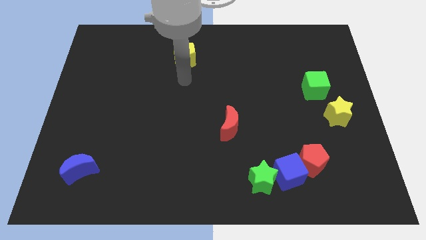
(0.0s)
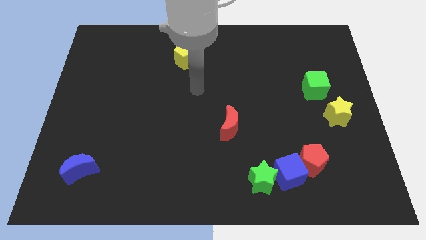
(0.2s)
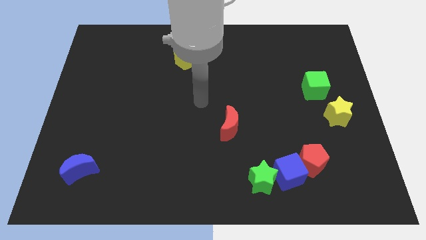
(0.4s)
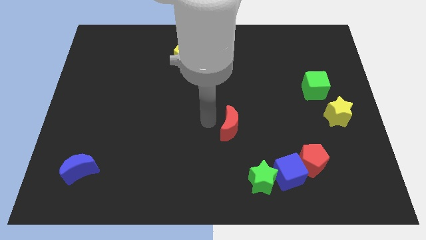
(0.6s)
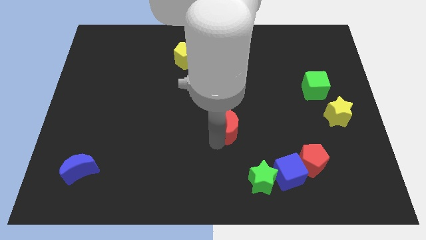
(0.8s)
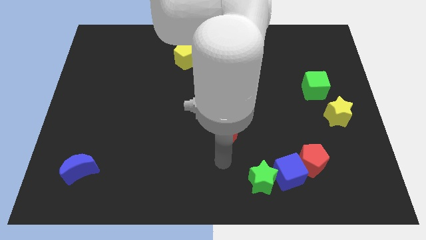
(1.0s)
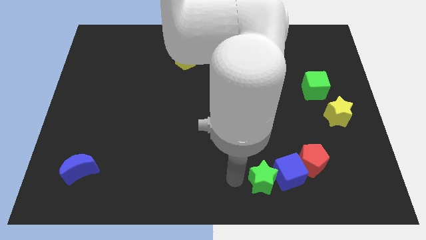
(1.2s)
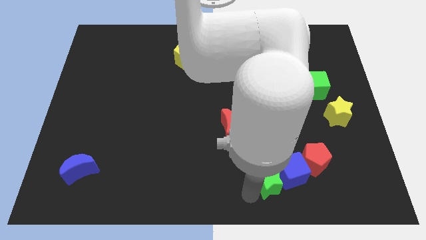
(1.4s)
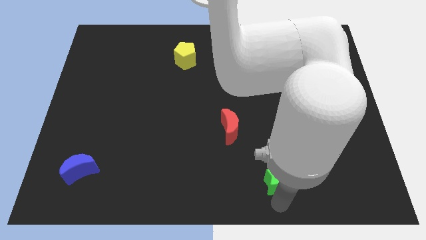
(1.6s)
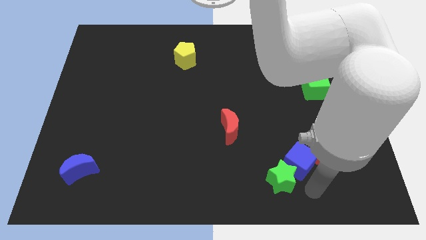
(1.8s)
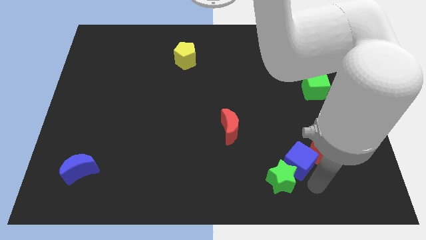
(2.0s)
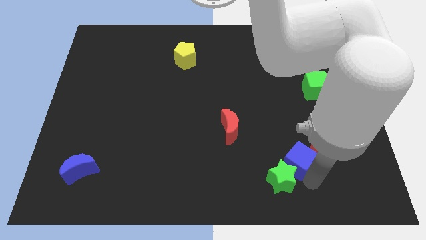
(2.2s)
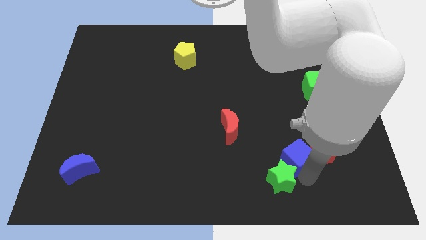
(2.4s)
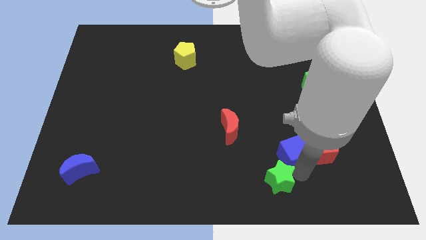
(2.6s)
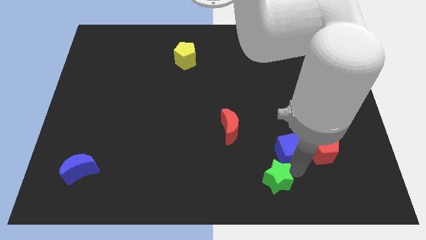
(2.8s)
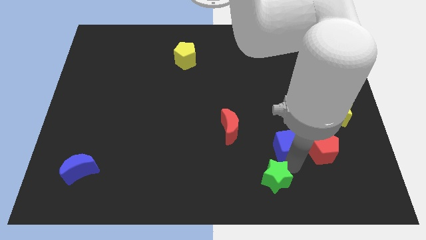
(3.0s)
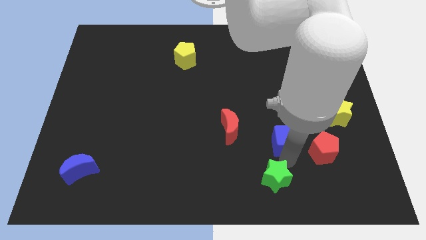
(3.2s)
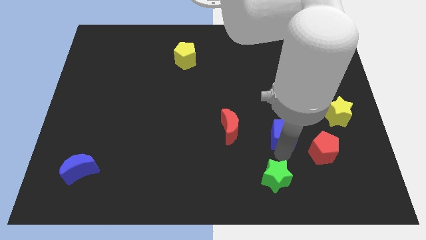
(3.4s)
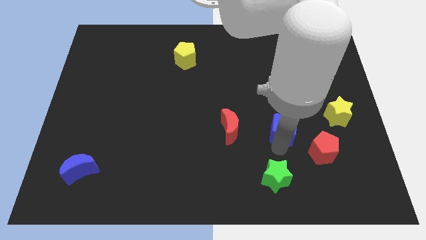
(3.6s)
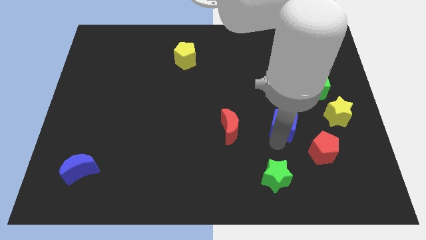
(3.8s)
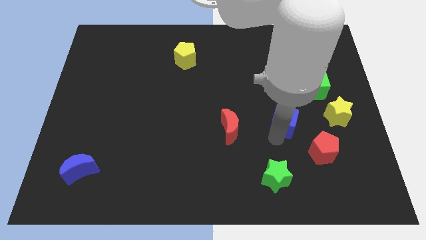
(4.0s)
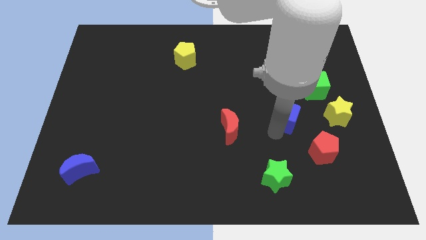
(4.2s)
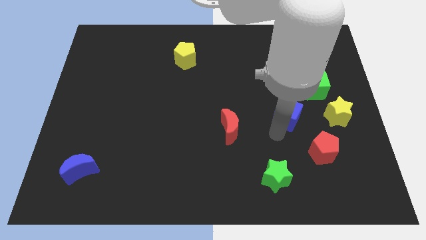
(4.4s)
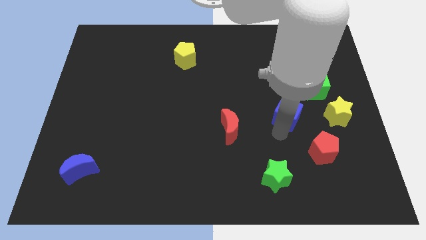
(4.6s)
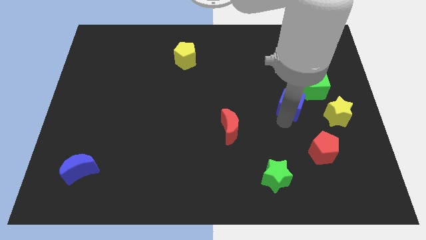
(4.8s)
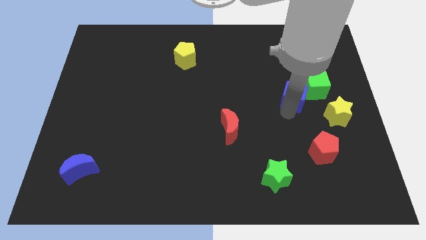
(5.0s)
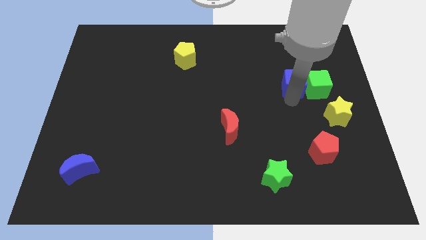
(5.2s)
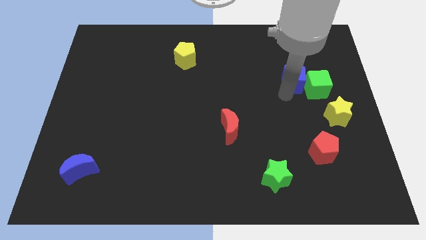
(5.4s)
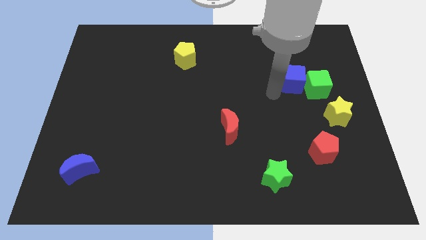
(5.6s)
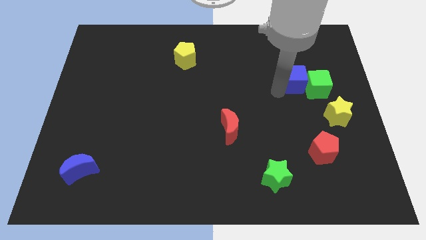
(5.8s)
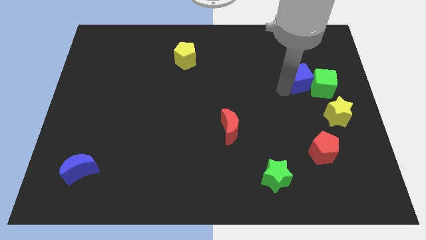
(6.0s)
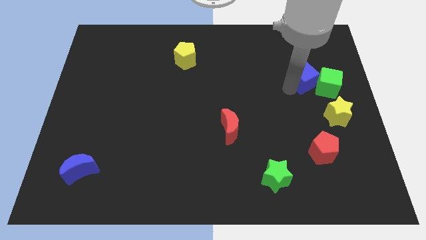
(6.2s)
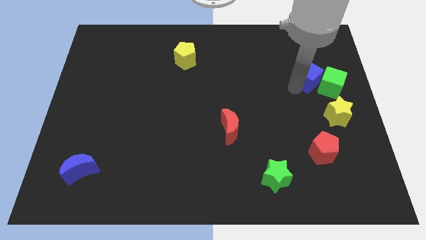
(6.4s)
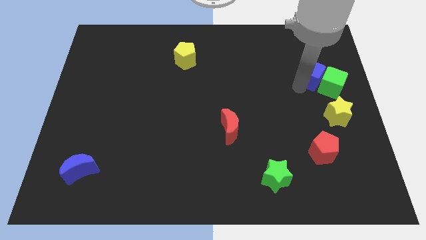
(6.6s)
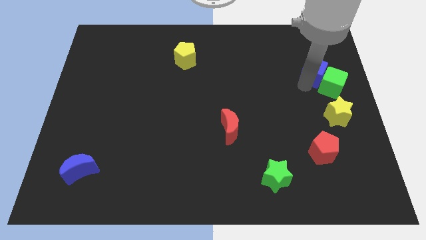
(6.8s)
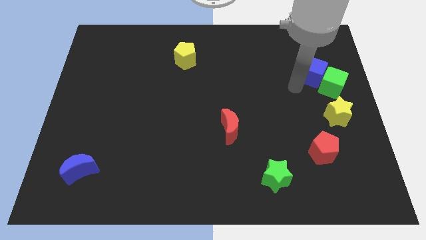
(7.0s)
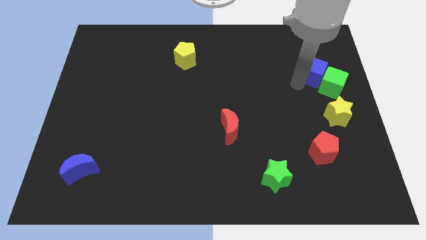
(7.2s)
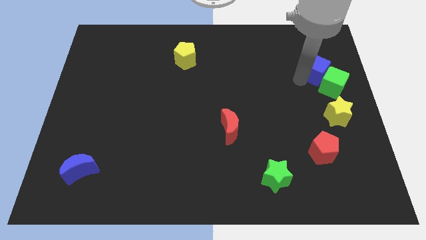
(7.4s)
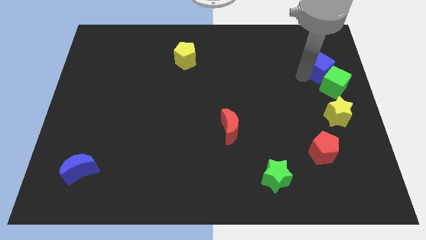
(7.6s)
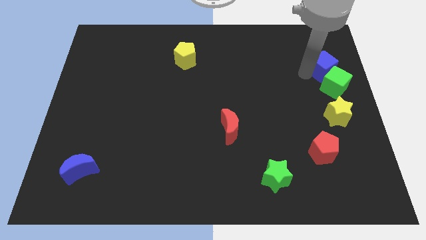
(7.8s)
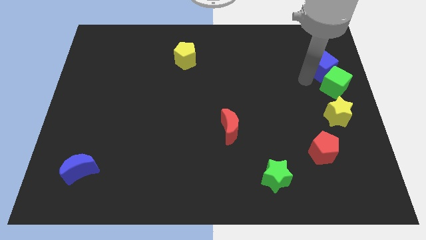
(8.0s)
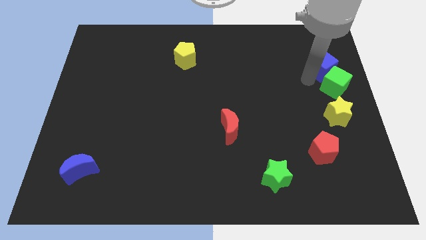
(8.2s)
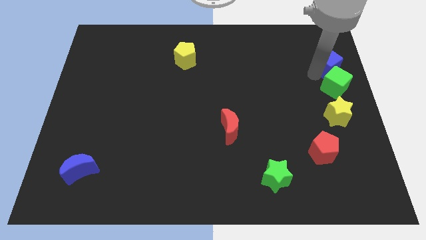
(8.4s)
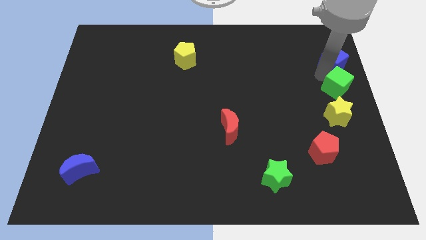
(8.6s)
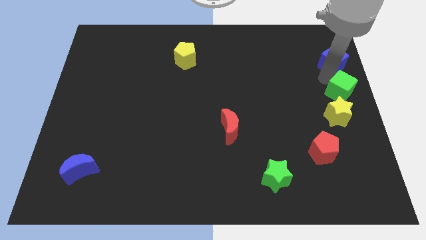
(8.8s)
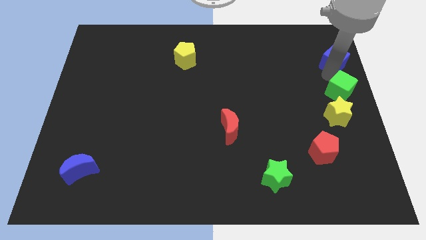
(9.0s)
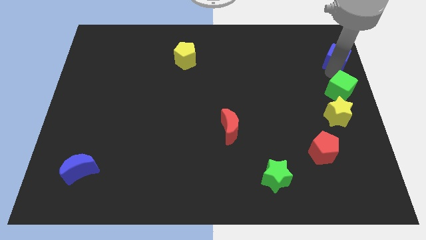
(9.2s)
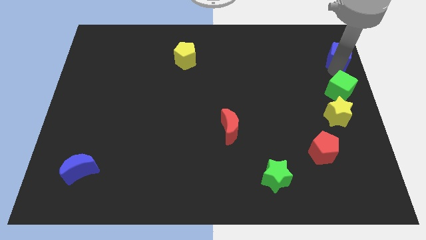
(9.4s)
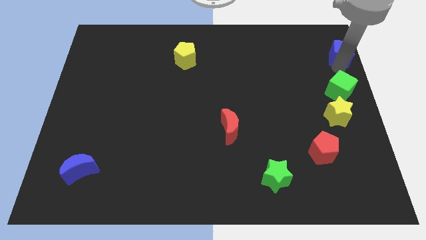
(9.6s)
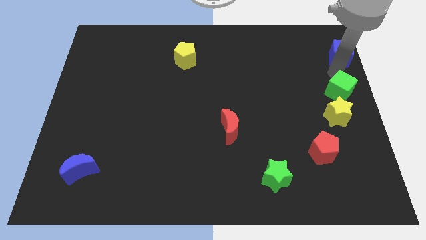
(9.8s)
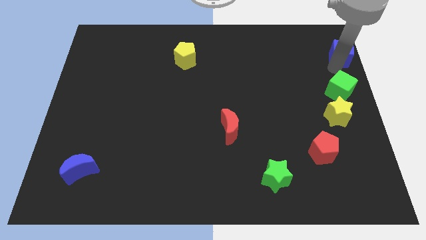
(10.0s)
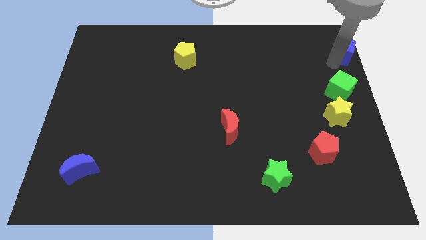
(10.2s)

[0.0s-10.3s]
push the blue cube to the top right

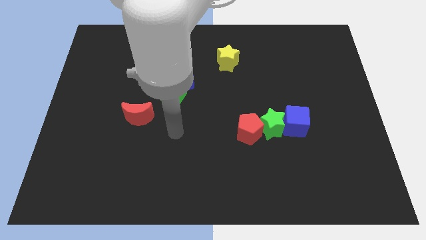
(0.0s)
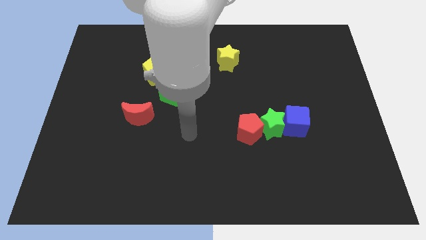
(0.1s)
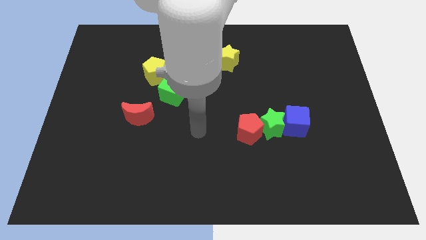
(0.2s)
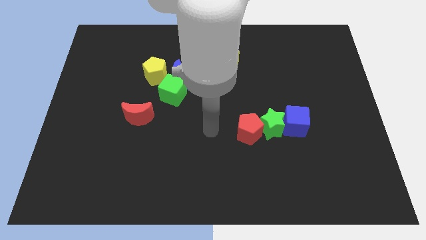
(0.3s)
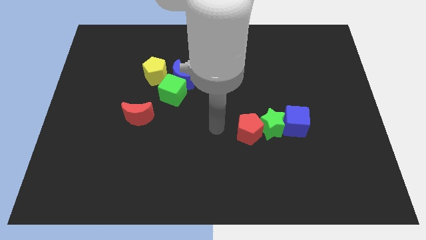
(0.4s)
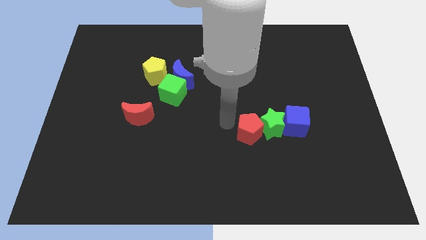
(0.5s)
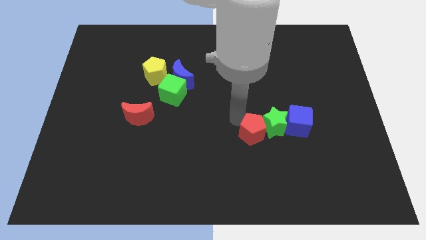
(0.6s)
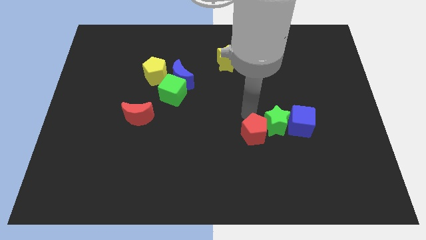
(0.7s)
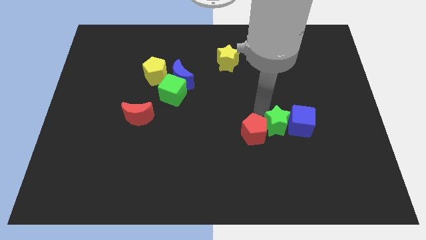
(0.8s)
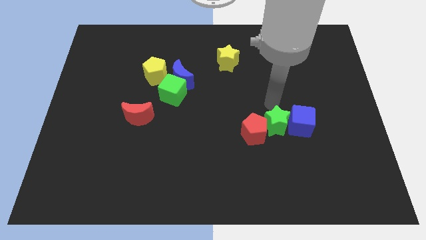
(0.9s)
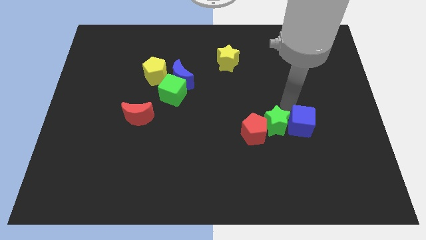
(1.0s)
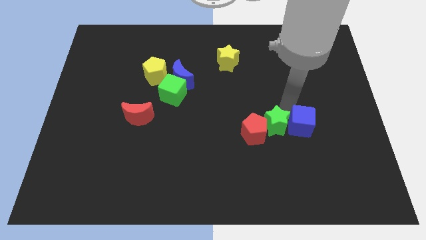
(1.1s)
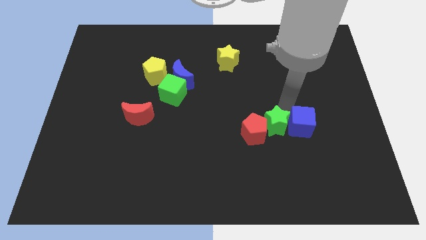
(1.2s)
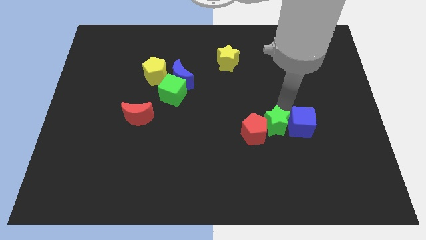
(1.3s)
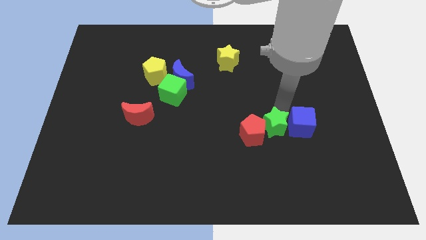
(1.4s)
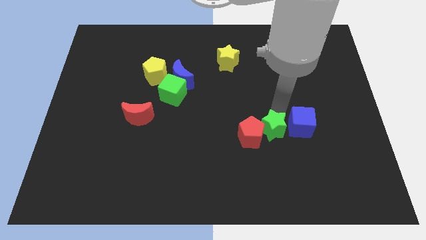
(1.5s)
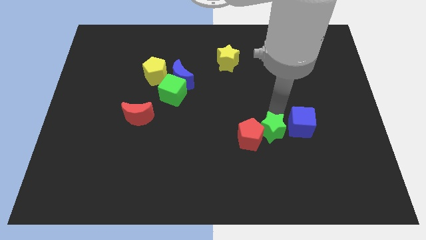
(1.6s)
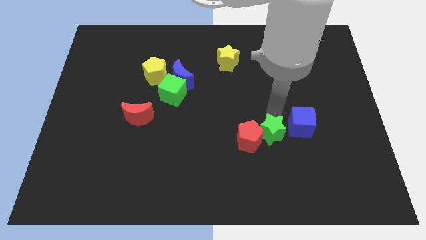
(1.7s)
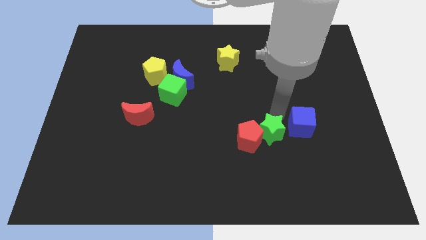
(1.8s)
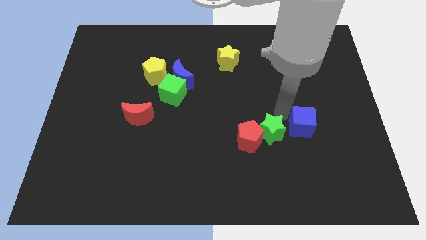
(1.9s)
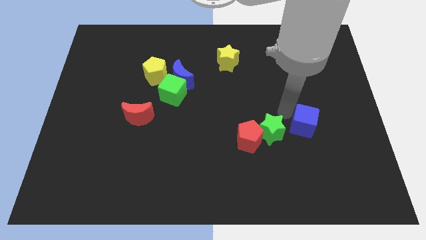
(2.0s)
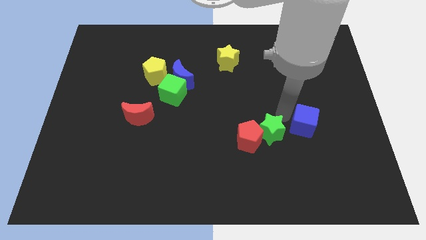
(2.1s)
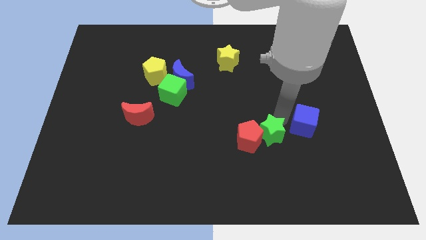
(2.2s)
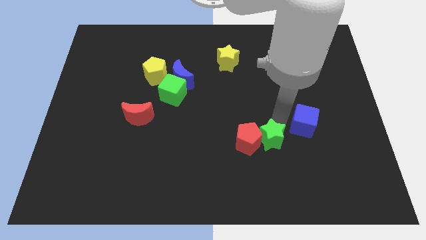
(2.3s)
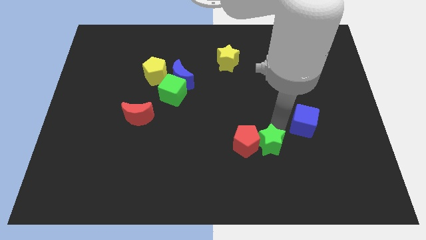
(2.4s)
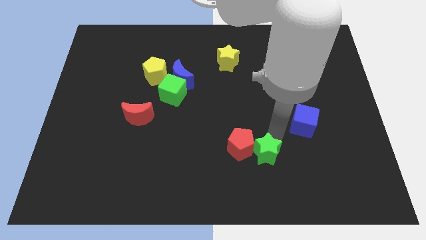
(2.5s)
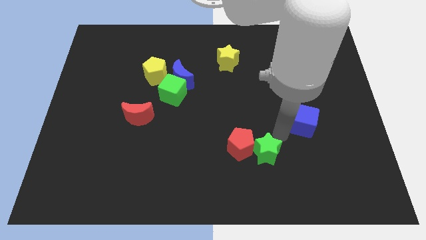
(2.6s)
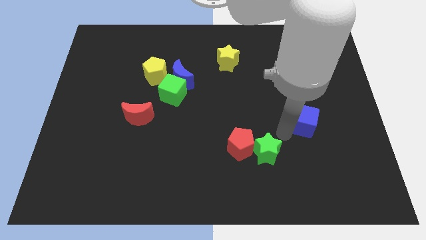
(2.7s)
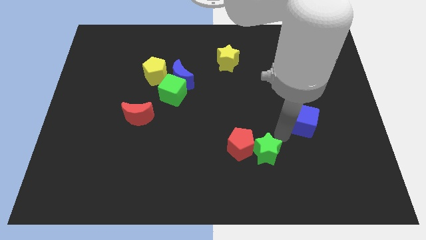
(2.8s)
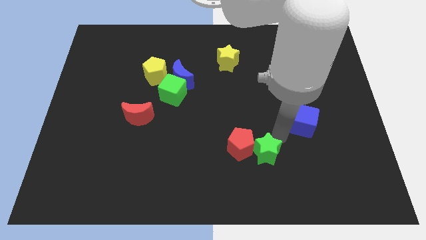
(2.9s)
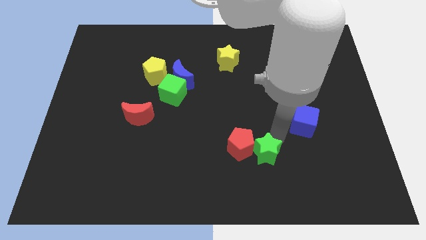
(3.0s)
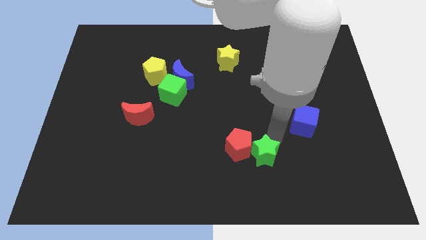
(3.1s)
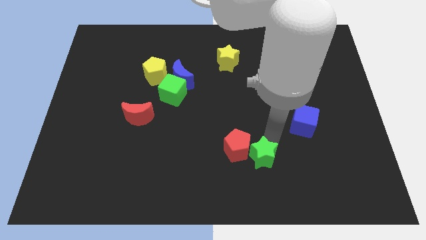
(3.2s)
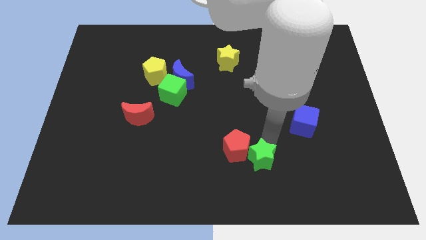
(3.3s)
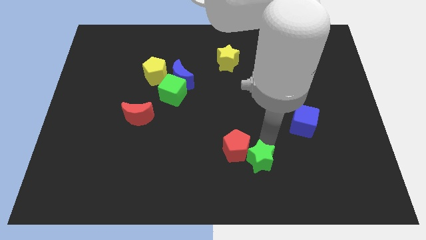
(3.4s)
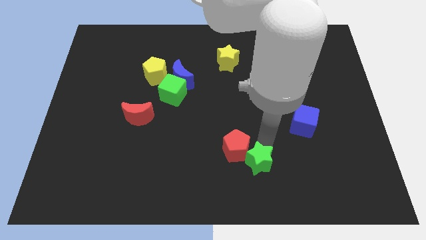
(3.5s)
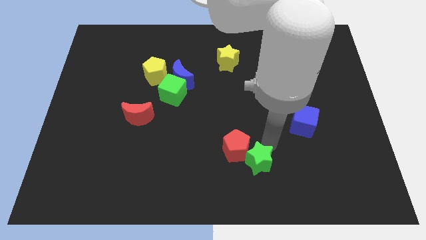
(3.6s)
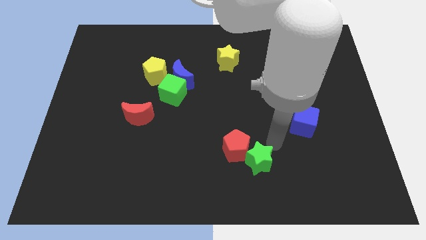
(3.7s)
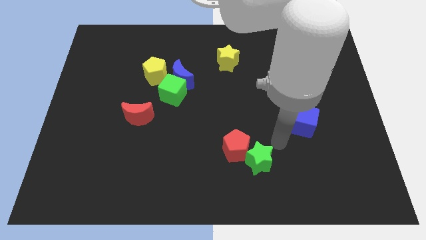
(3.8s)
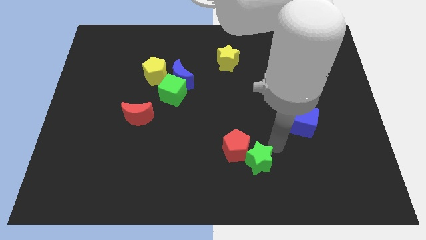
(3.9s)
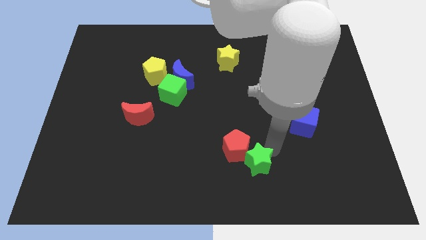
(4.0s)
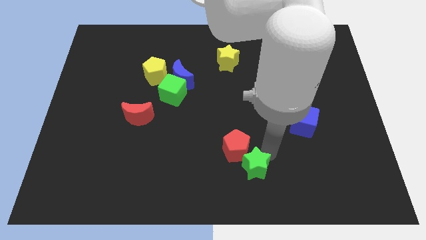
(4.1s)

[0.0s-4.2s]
put the green star to the bottom
